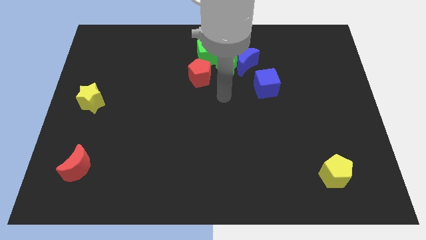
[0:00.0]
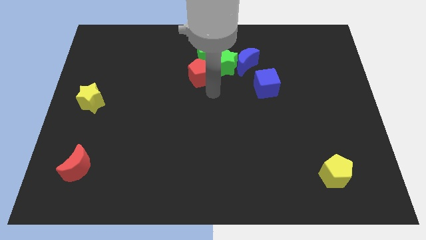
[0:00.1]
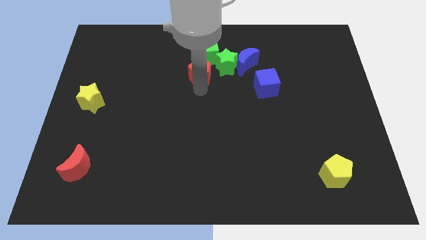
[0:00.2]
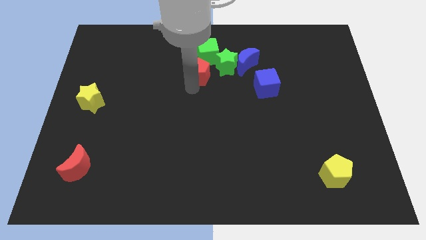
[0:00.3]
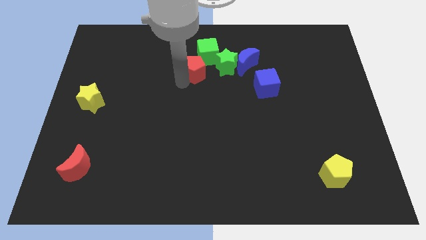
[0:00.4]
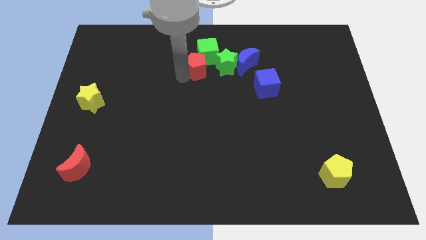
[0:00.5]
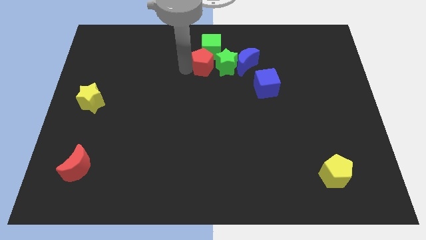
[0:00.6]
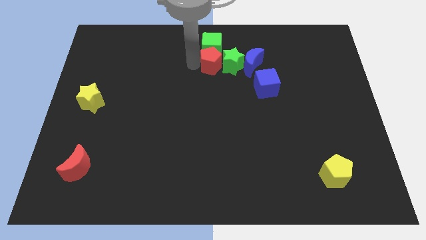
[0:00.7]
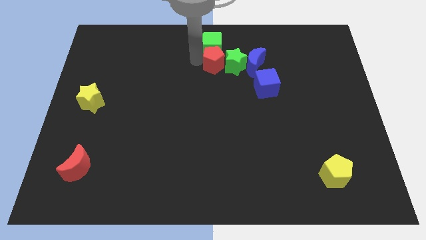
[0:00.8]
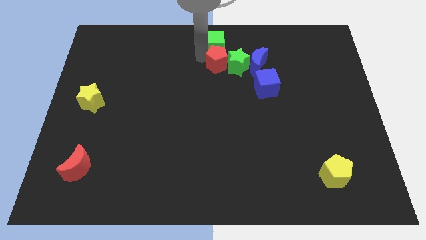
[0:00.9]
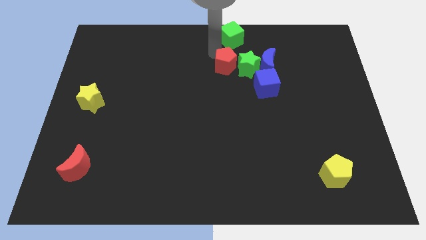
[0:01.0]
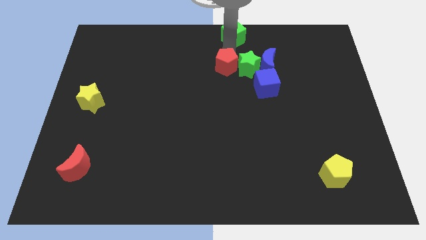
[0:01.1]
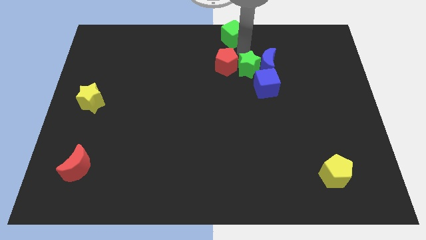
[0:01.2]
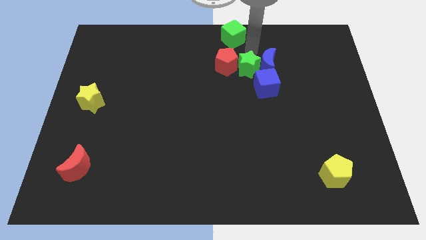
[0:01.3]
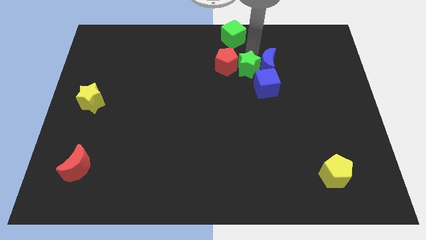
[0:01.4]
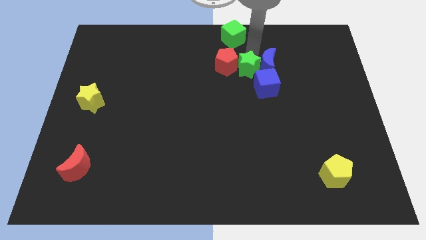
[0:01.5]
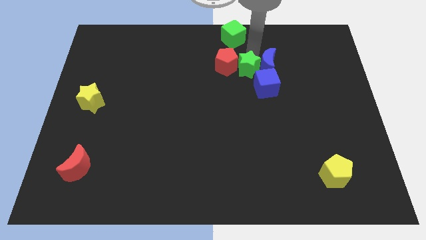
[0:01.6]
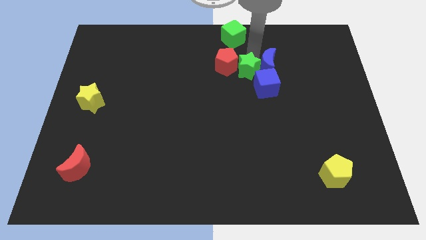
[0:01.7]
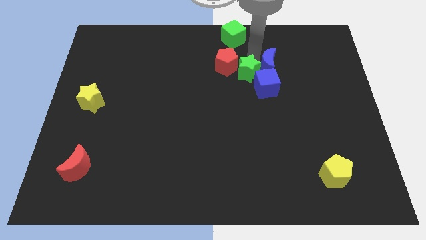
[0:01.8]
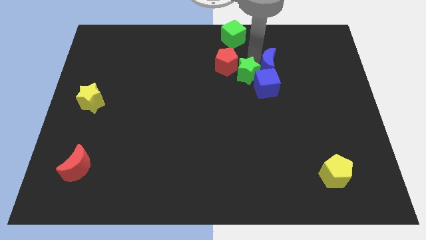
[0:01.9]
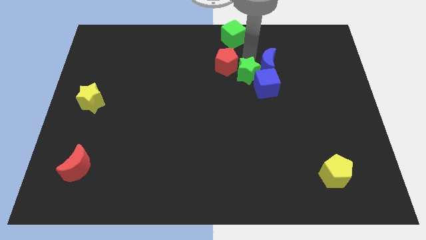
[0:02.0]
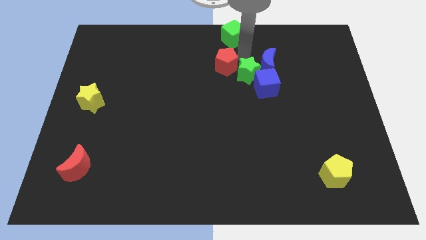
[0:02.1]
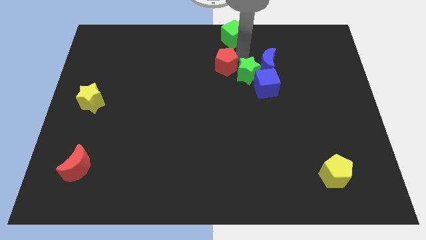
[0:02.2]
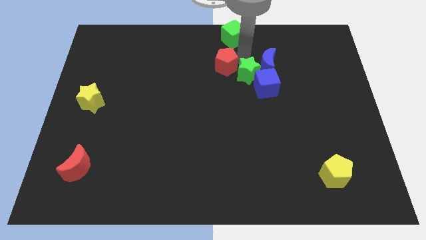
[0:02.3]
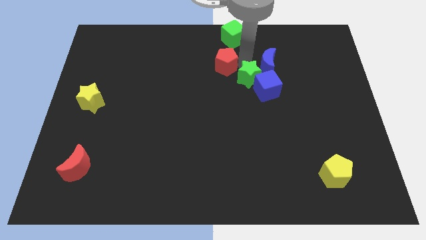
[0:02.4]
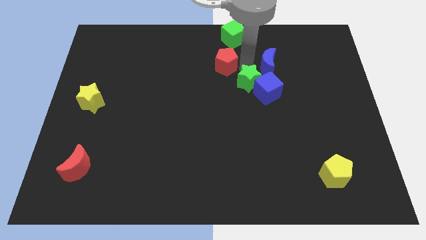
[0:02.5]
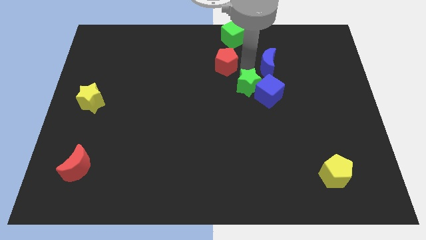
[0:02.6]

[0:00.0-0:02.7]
pull the green star apart from the blue moon, green cube, and red pentagon

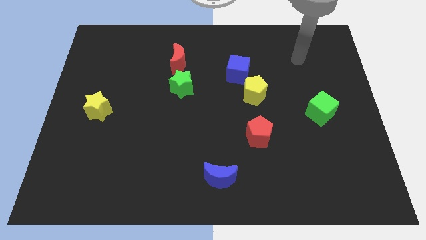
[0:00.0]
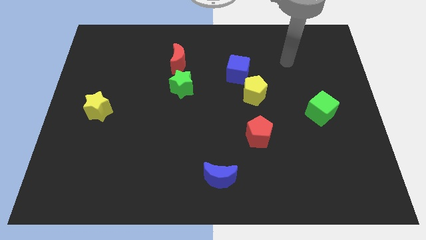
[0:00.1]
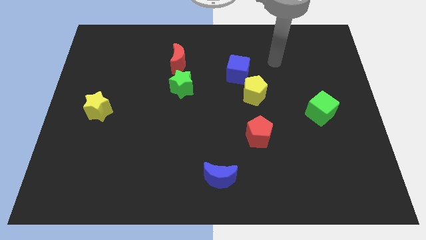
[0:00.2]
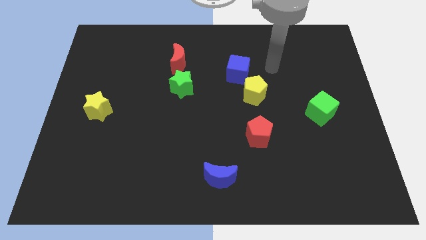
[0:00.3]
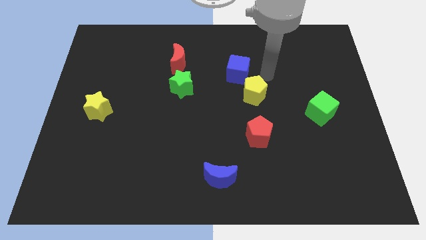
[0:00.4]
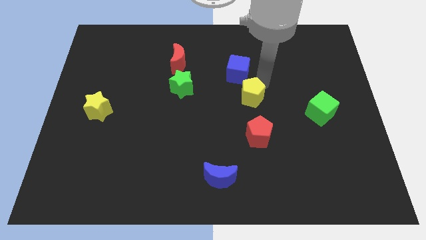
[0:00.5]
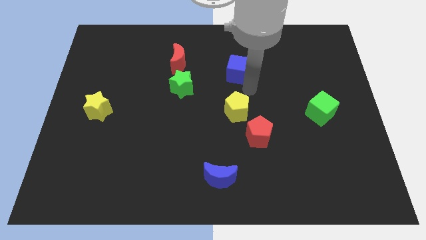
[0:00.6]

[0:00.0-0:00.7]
move the blue cube away from the yellow pentagon

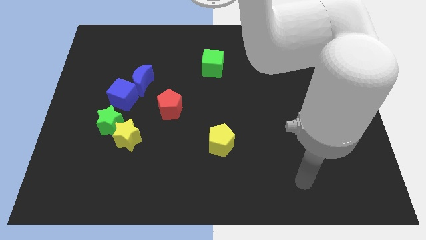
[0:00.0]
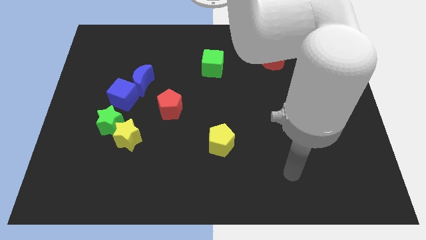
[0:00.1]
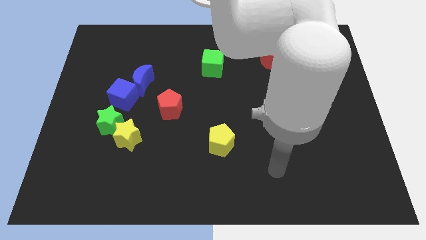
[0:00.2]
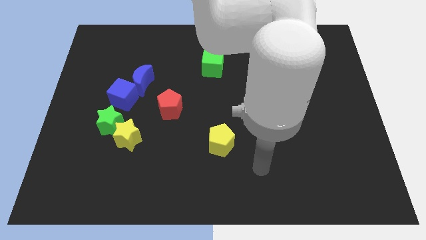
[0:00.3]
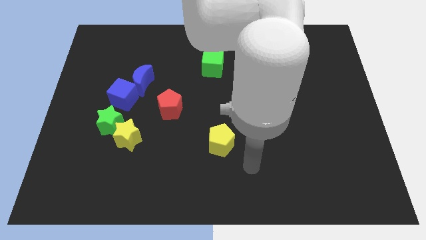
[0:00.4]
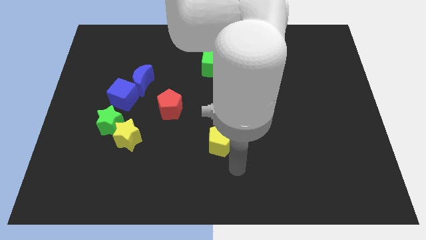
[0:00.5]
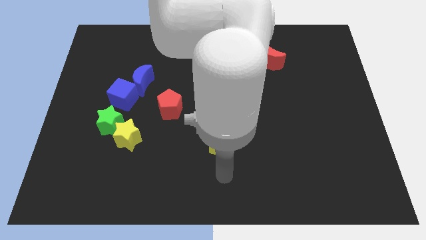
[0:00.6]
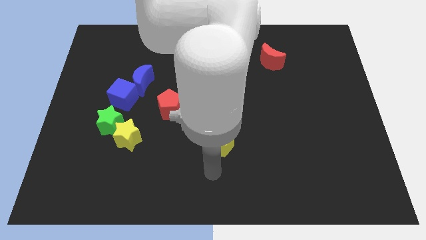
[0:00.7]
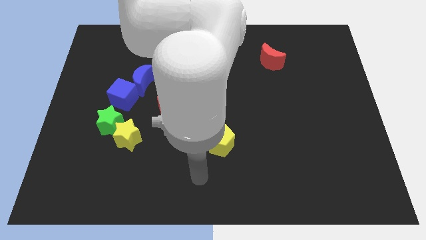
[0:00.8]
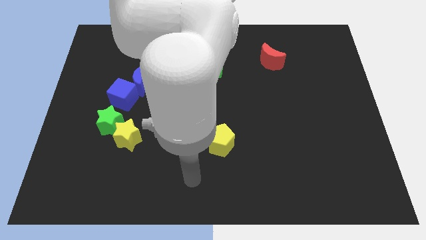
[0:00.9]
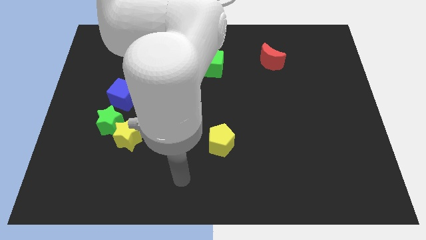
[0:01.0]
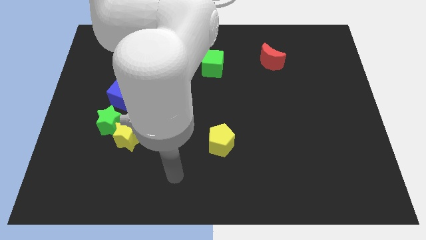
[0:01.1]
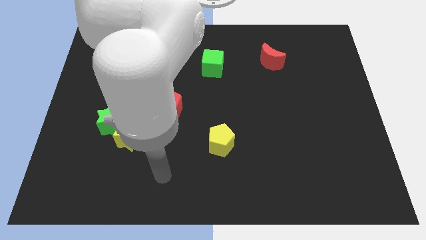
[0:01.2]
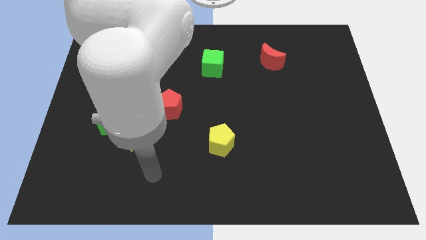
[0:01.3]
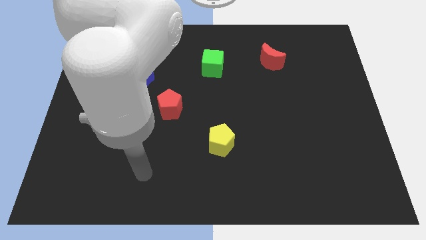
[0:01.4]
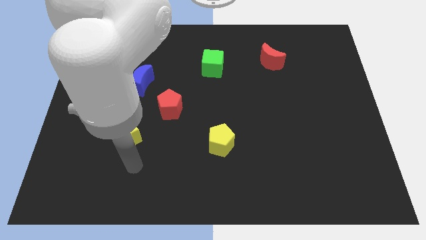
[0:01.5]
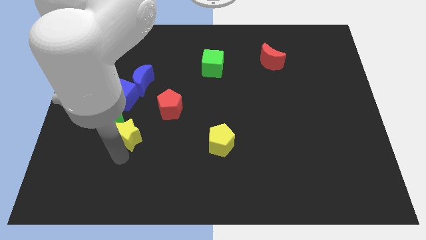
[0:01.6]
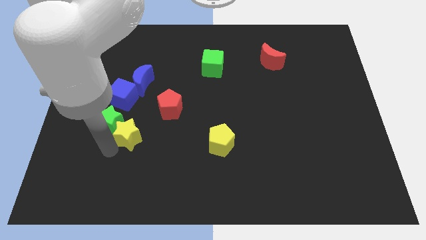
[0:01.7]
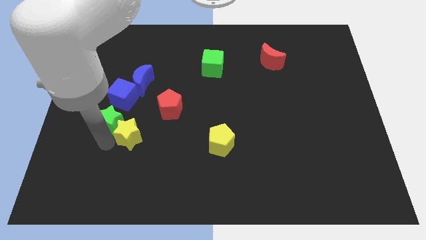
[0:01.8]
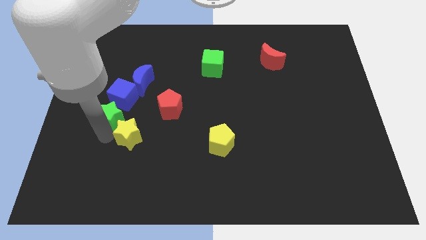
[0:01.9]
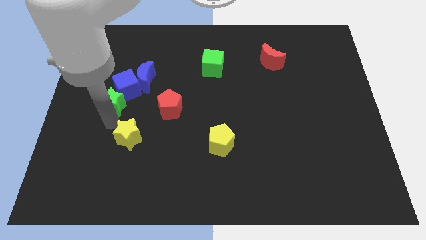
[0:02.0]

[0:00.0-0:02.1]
separate the yellow star from the green star

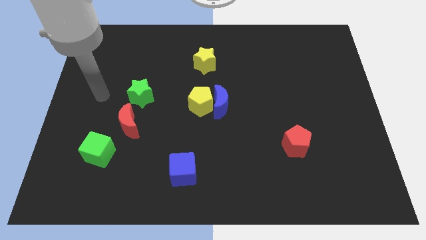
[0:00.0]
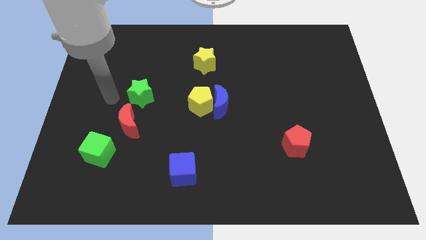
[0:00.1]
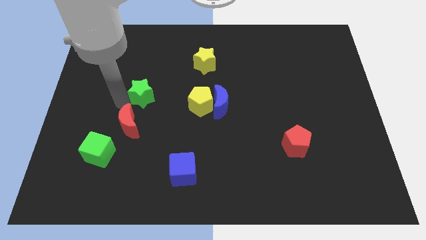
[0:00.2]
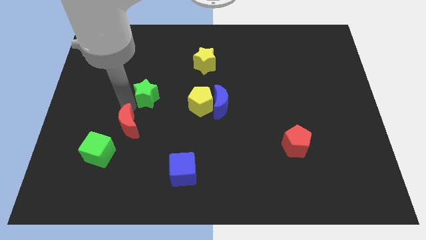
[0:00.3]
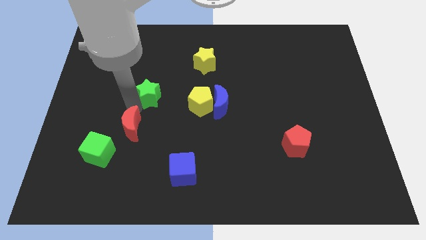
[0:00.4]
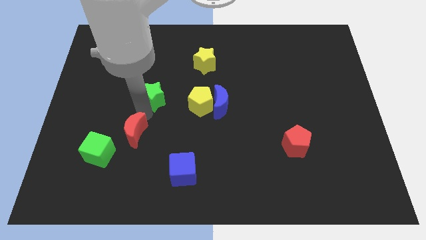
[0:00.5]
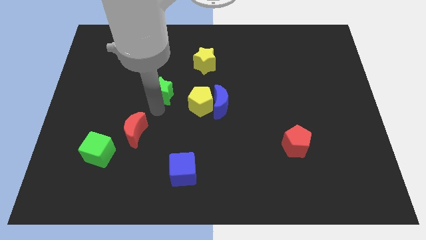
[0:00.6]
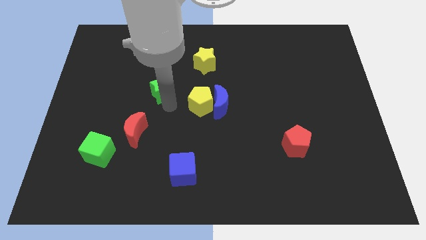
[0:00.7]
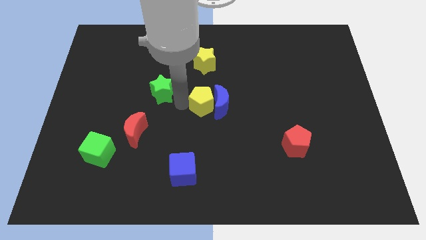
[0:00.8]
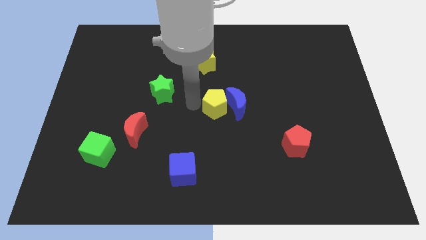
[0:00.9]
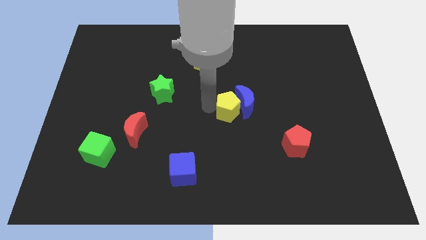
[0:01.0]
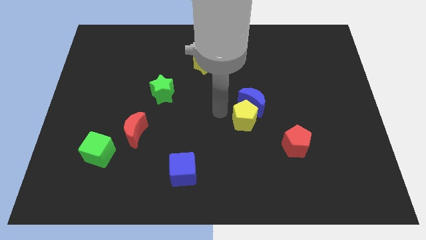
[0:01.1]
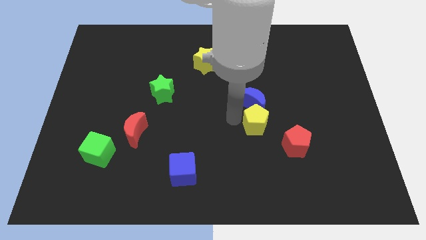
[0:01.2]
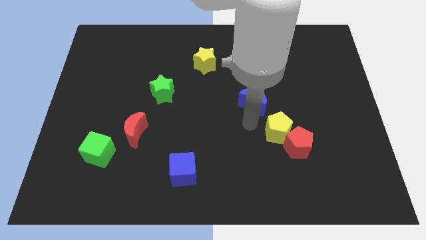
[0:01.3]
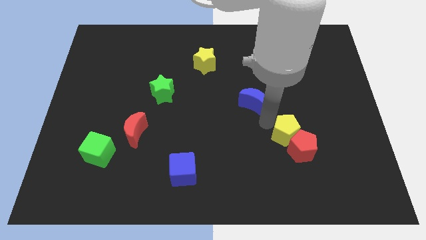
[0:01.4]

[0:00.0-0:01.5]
move the blue moon away from the yellow pentagon

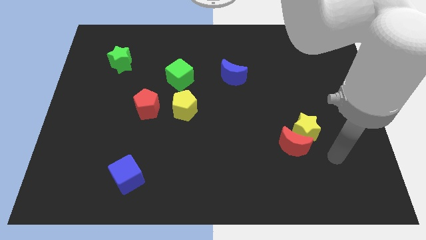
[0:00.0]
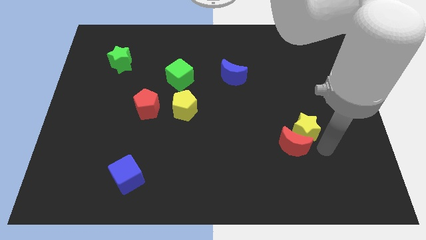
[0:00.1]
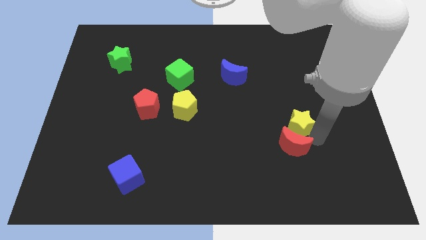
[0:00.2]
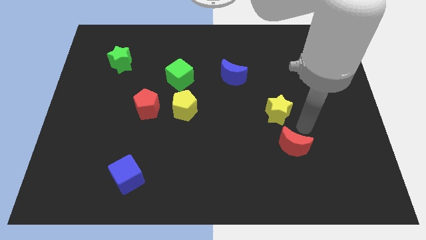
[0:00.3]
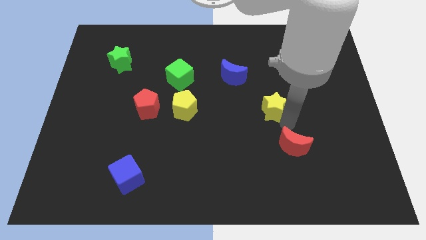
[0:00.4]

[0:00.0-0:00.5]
pull the red moon apart from the yellow star

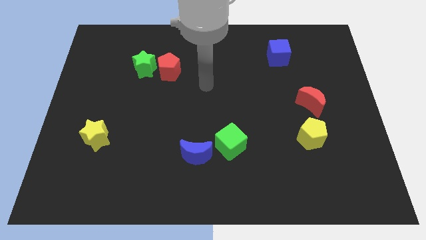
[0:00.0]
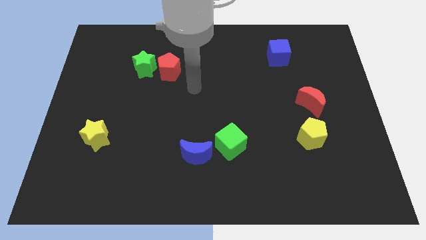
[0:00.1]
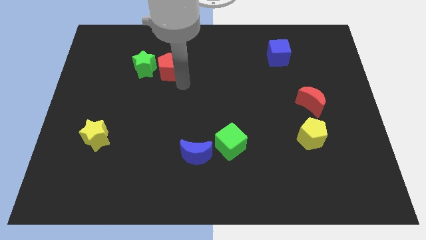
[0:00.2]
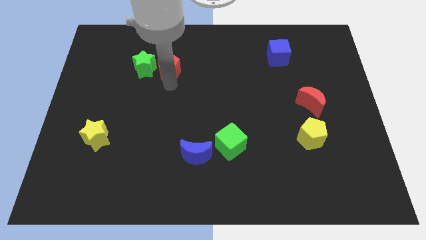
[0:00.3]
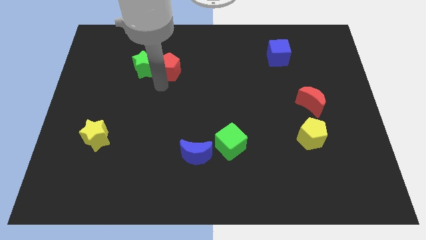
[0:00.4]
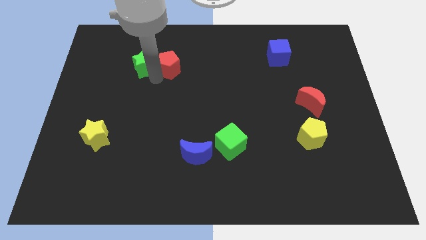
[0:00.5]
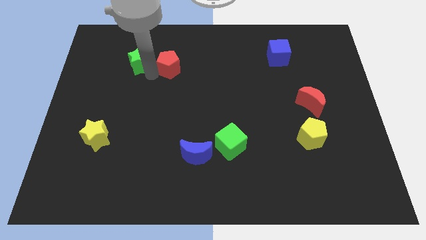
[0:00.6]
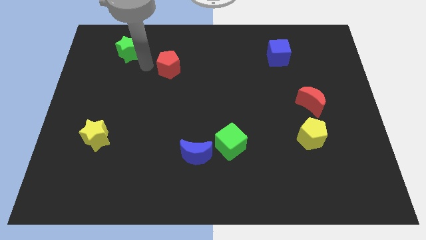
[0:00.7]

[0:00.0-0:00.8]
separate the red pentagon from the green star

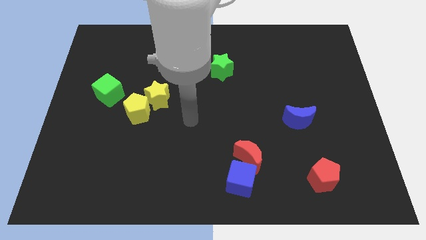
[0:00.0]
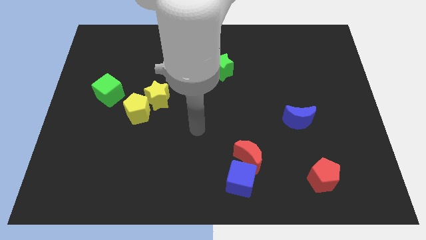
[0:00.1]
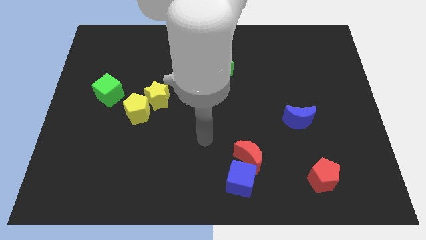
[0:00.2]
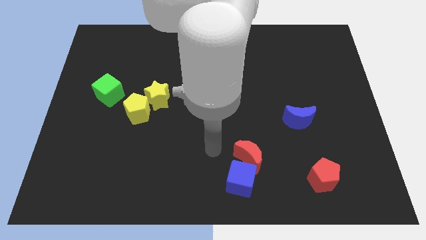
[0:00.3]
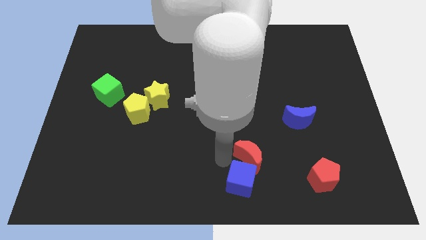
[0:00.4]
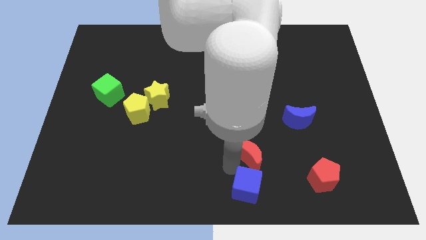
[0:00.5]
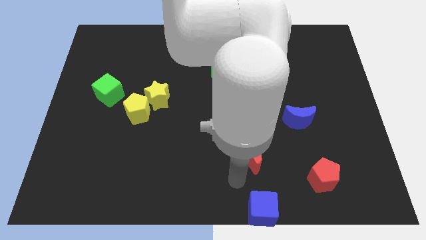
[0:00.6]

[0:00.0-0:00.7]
pull the red moon apart from the blue cube

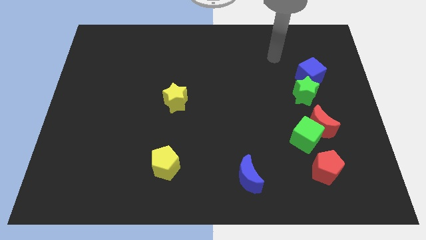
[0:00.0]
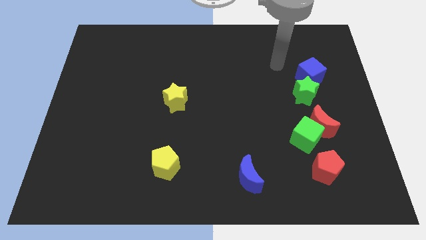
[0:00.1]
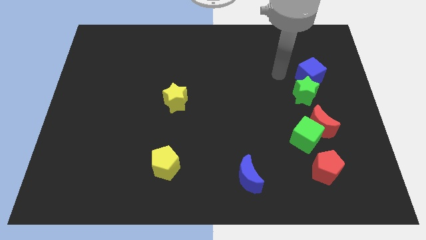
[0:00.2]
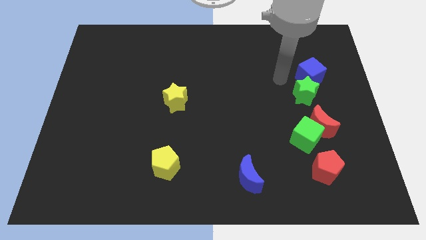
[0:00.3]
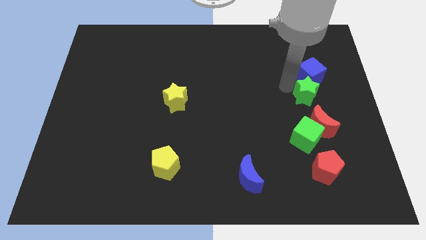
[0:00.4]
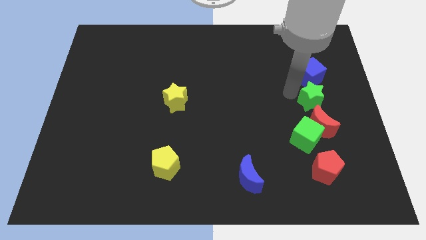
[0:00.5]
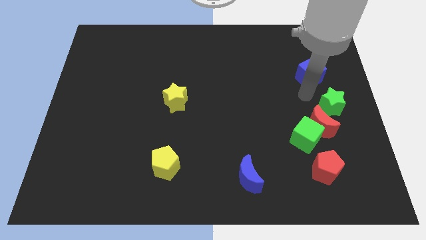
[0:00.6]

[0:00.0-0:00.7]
pull the blue cube apart from the green star
